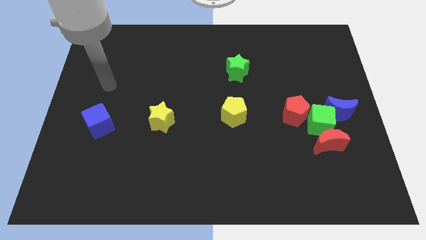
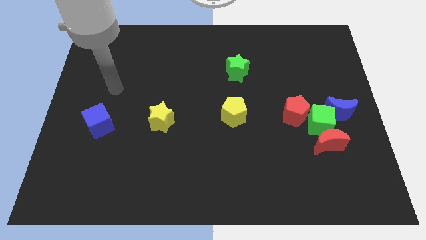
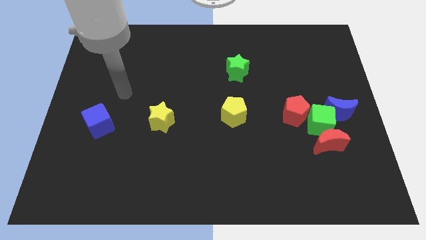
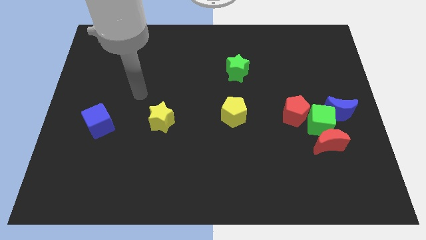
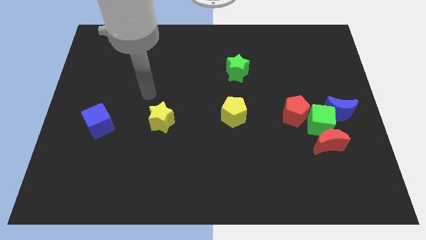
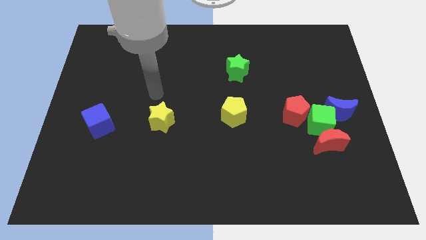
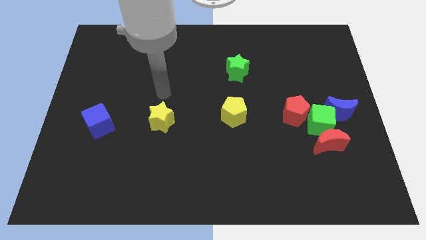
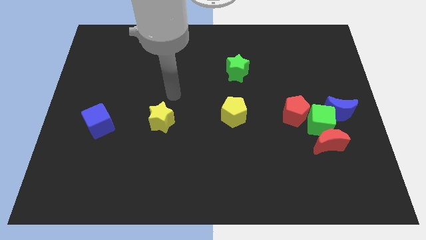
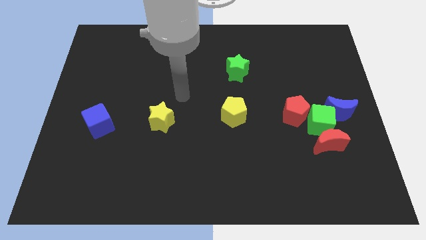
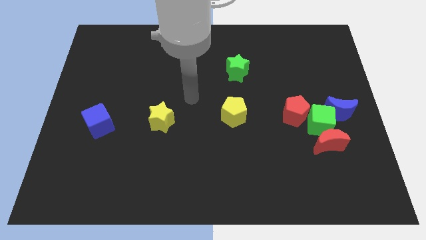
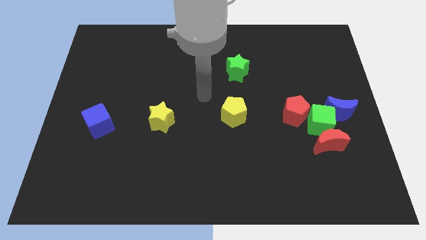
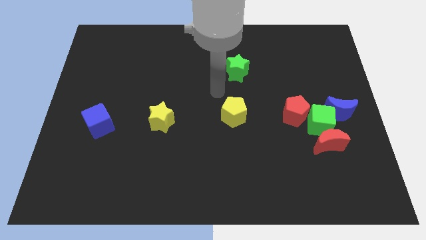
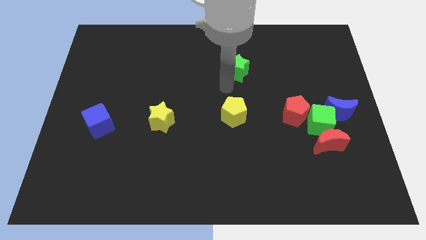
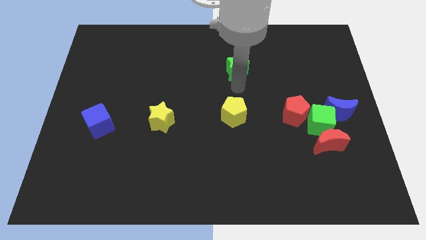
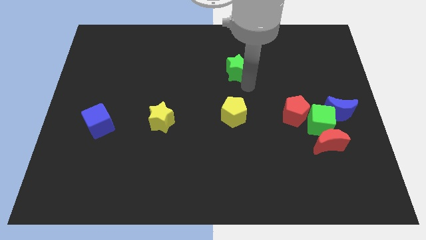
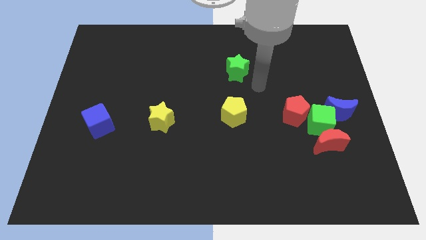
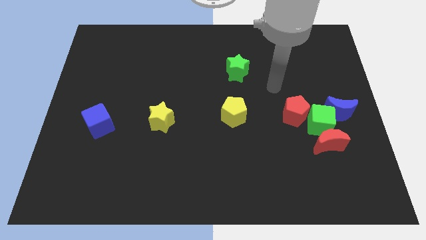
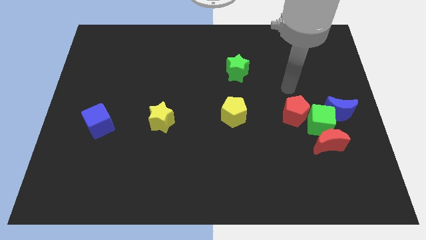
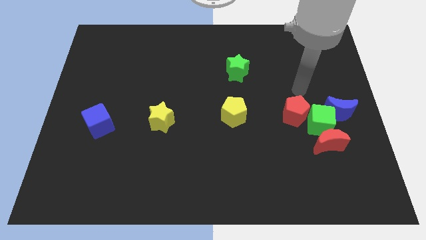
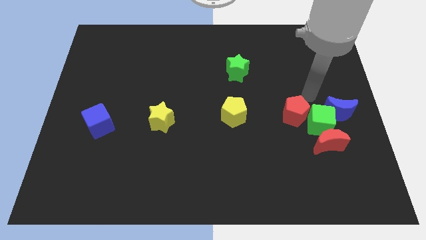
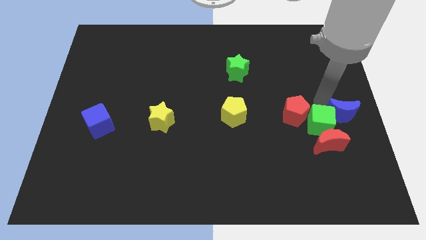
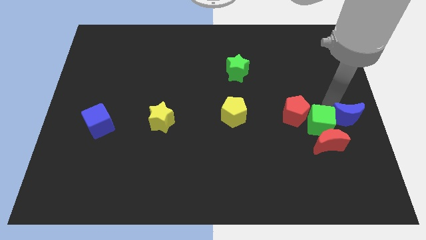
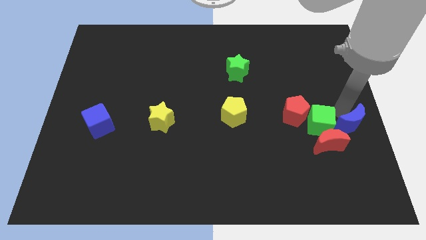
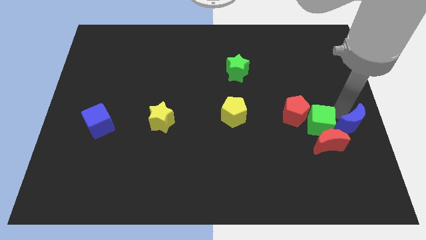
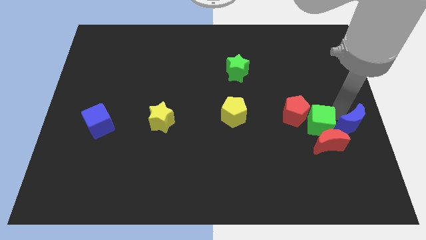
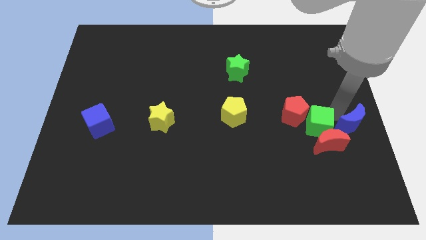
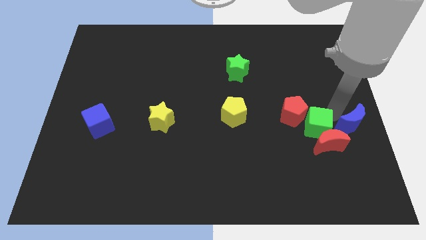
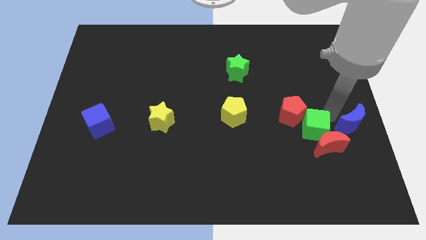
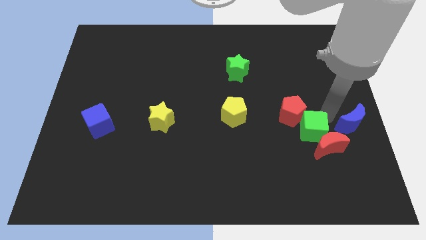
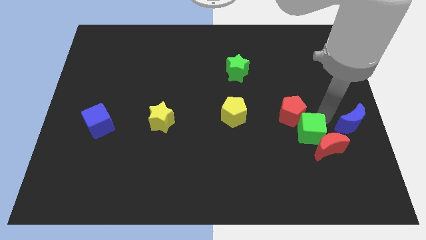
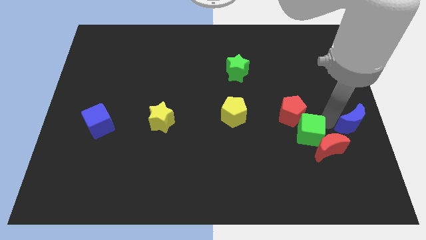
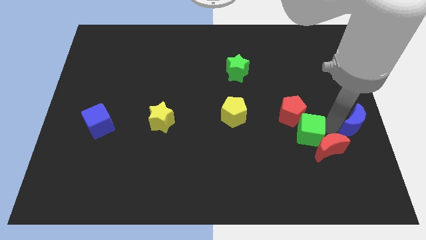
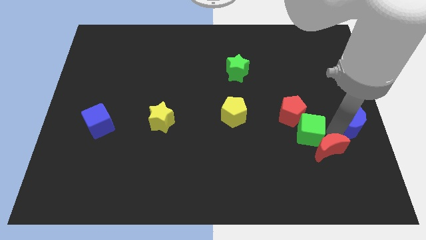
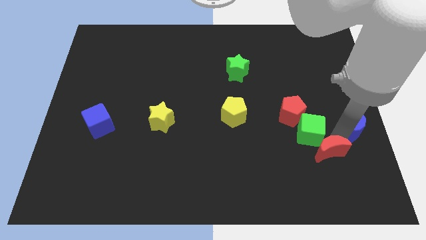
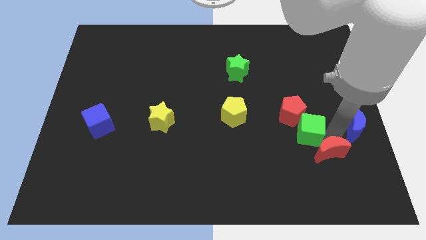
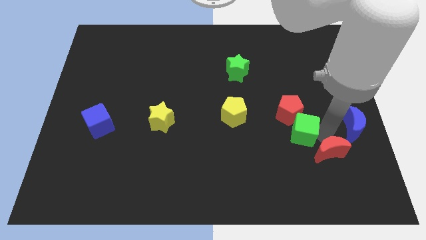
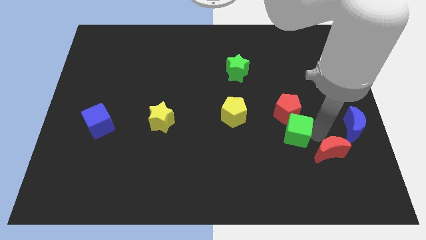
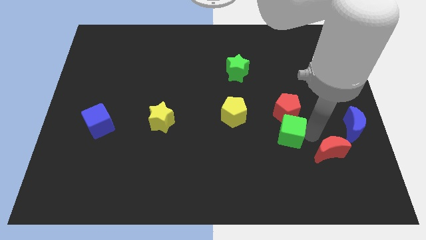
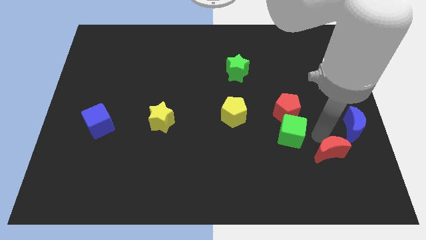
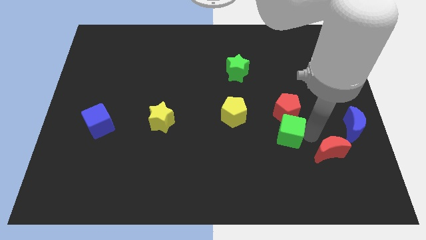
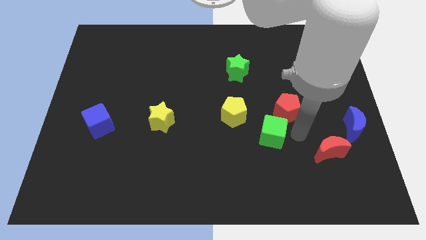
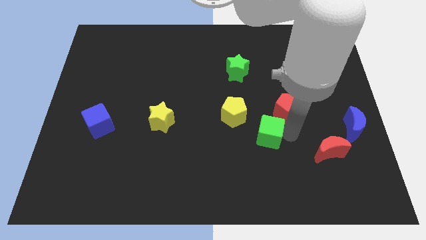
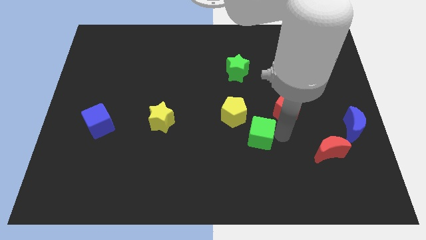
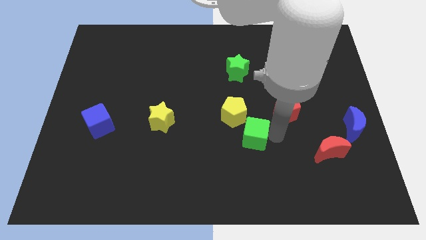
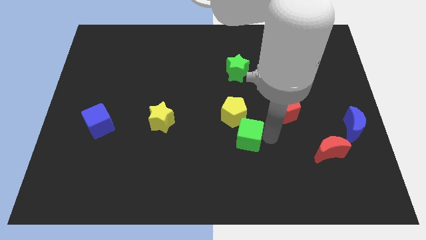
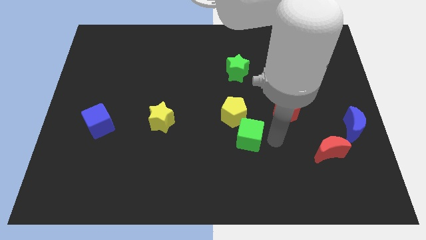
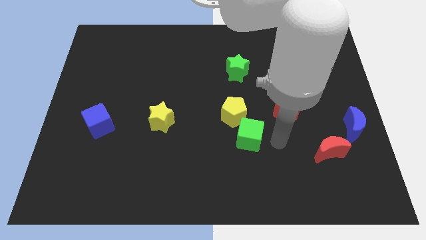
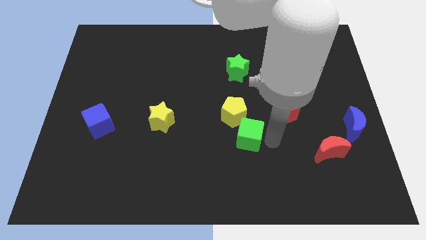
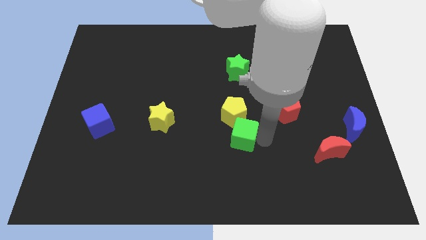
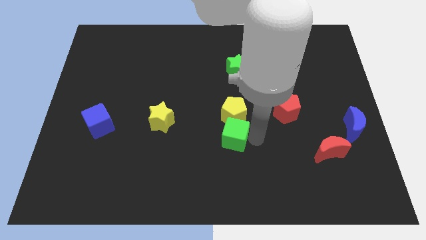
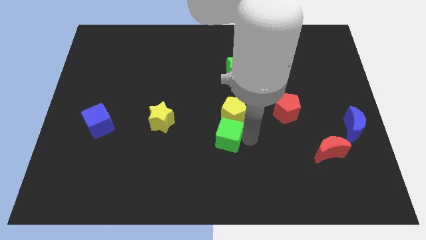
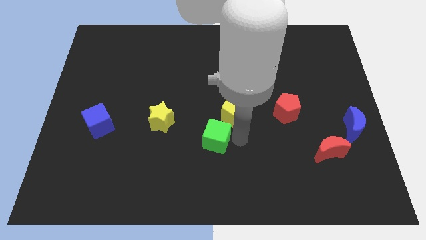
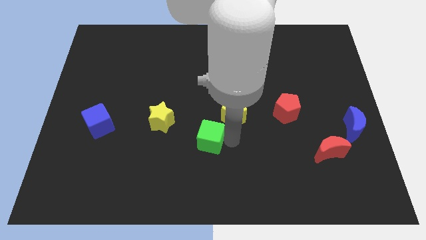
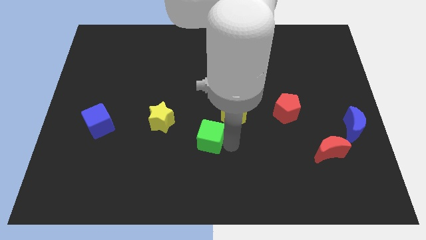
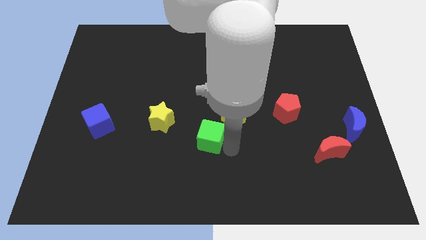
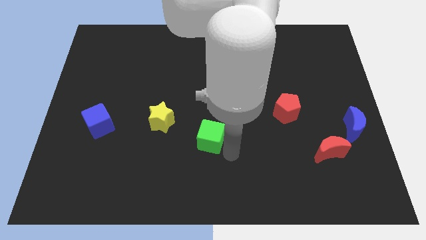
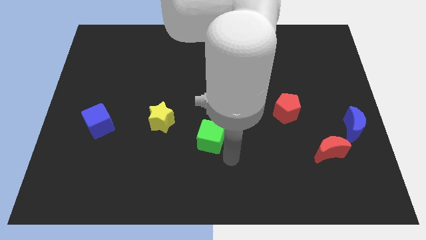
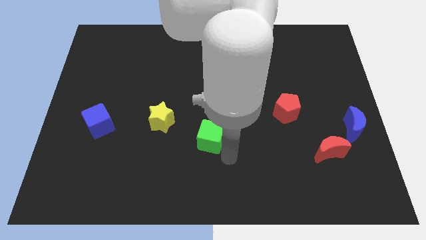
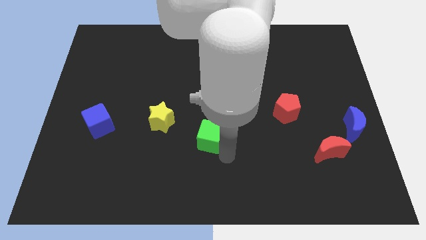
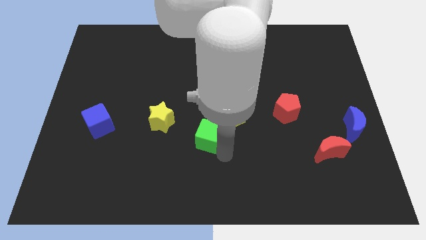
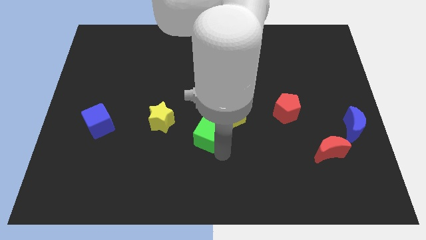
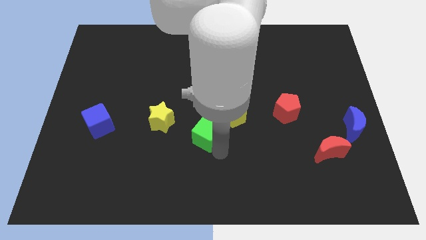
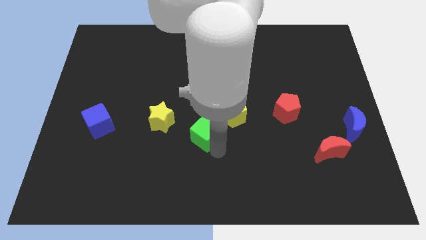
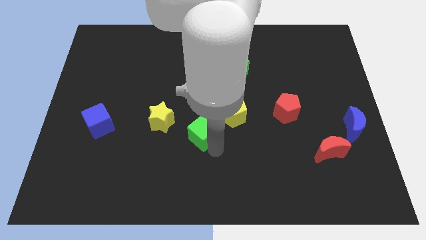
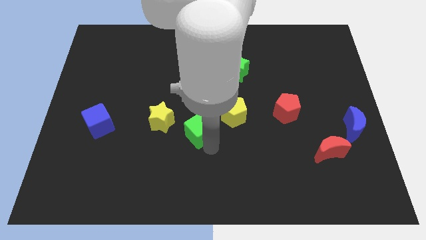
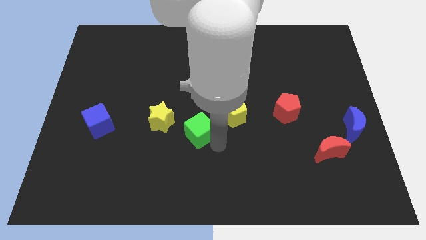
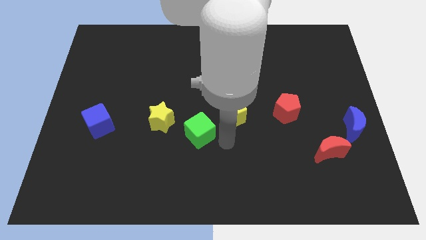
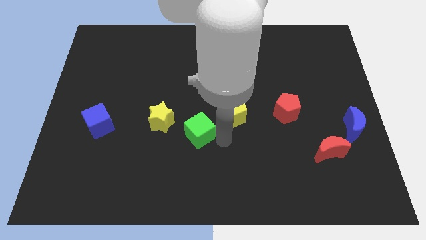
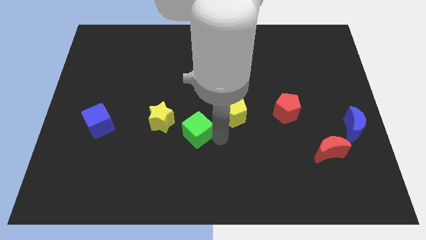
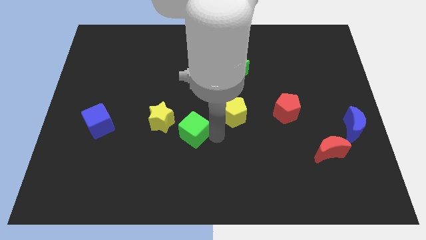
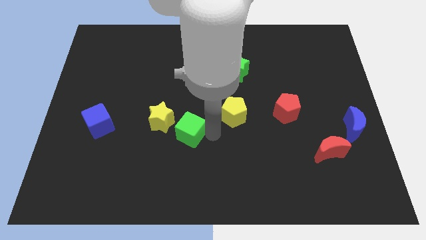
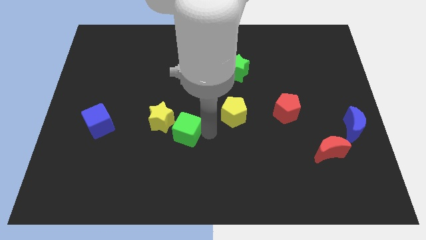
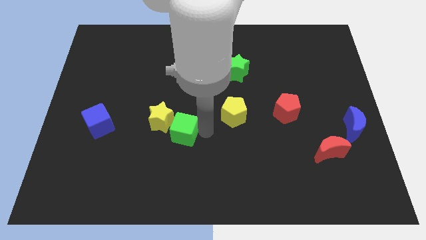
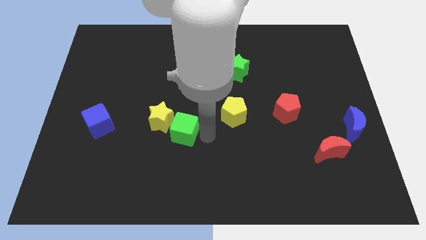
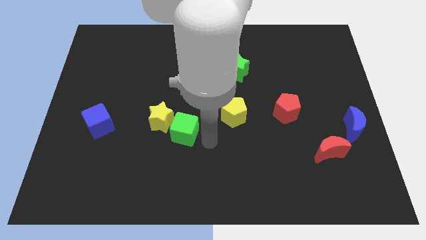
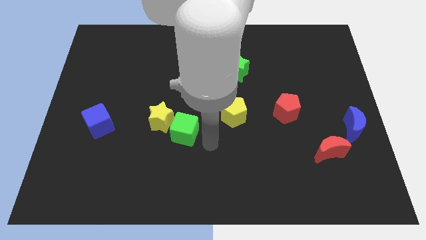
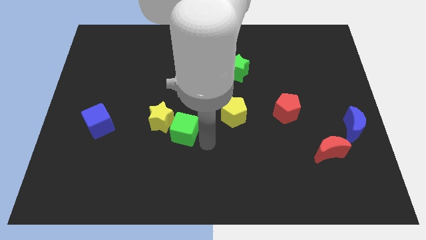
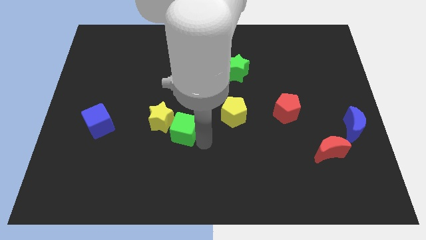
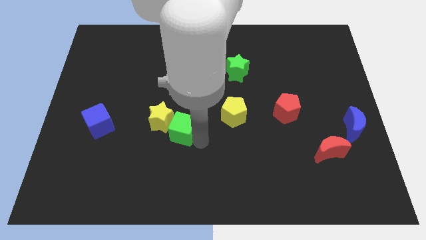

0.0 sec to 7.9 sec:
put the green cube to the yellow star
